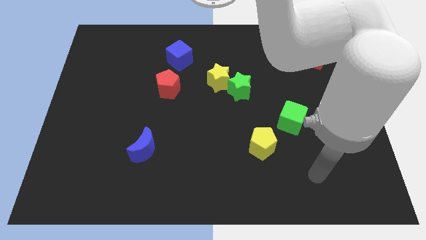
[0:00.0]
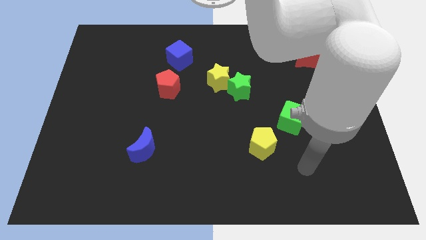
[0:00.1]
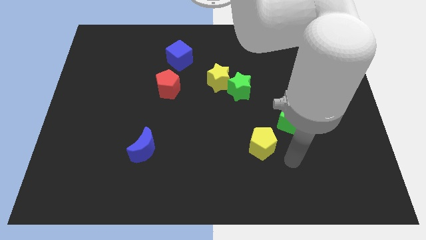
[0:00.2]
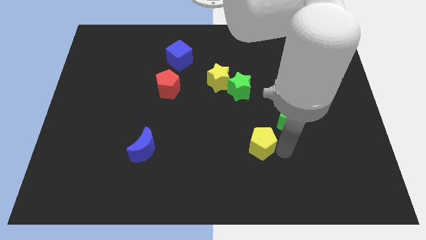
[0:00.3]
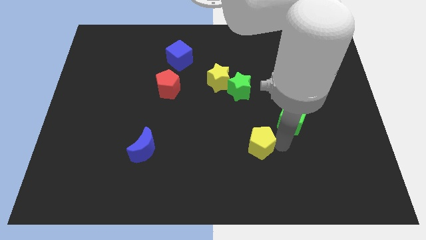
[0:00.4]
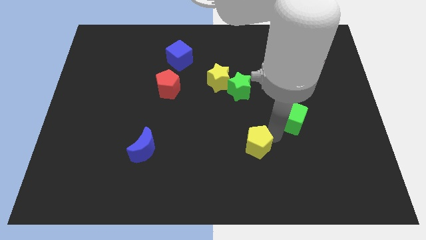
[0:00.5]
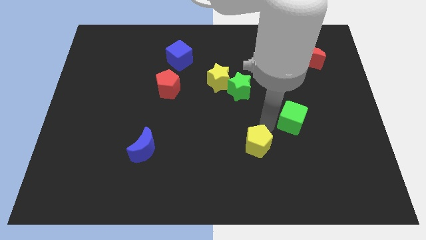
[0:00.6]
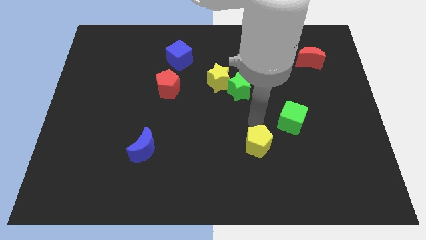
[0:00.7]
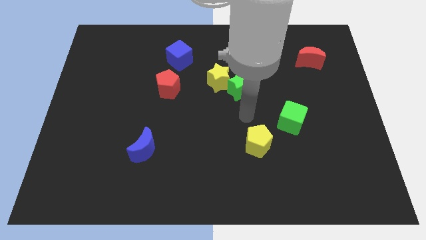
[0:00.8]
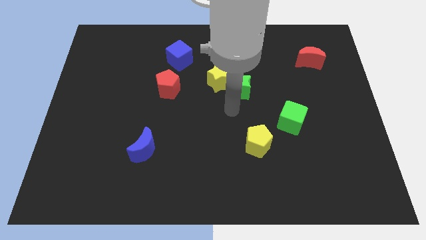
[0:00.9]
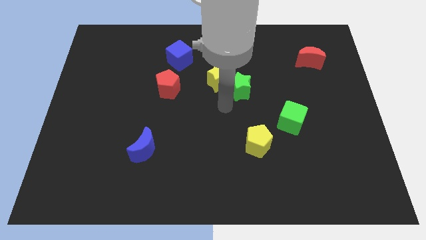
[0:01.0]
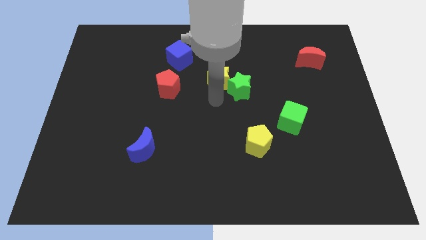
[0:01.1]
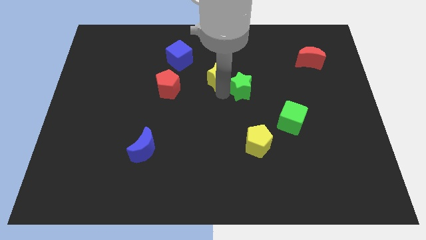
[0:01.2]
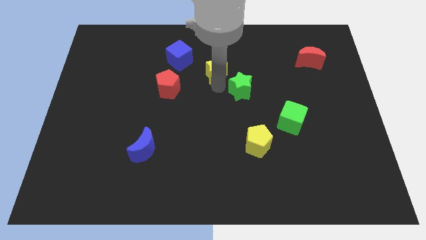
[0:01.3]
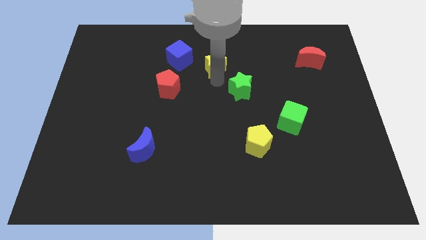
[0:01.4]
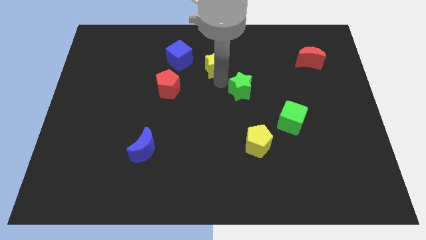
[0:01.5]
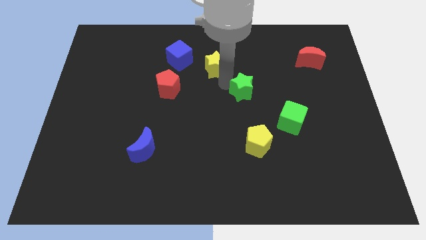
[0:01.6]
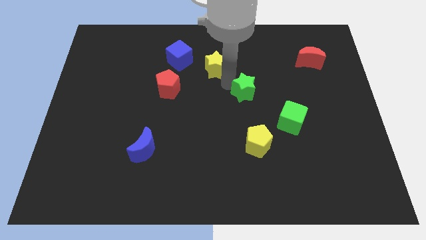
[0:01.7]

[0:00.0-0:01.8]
move the green star away from the yellow star

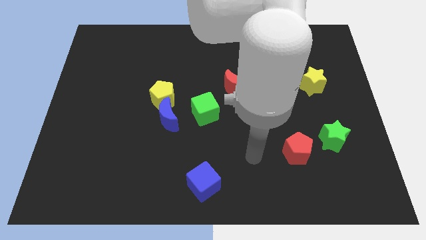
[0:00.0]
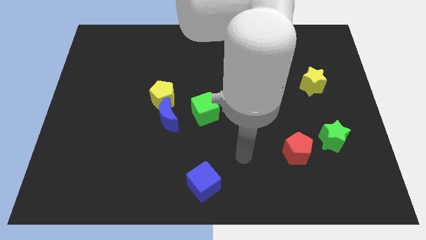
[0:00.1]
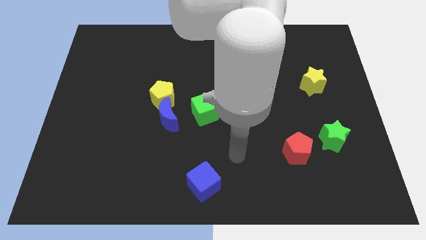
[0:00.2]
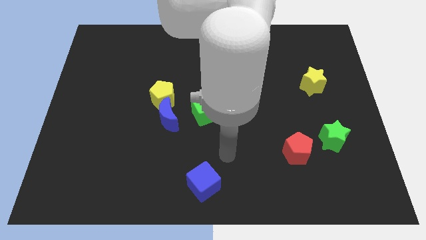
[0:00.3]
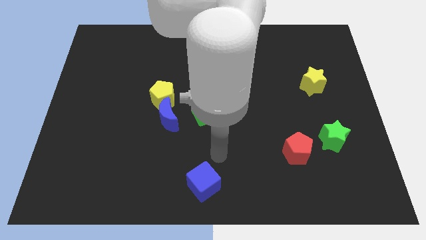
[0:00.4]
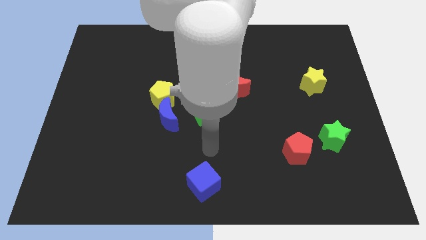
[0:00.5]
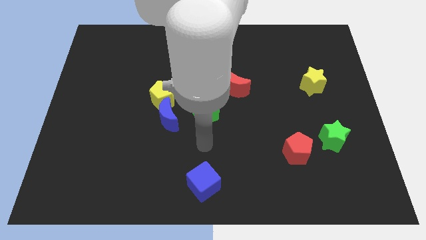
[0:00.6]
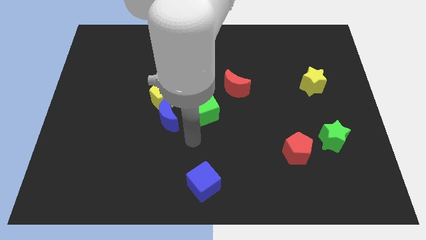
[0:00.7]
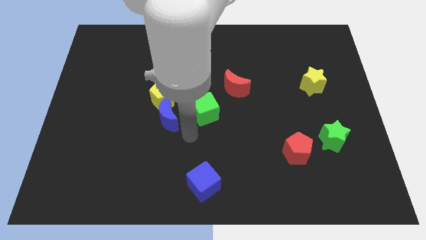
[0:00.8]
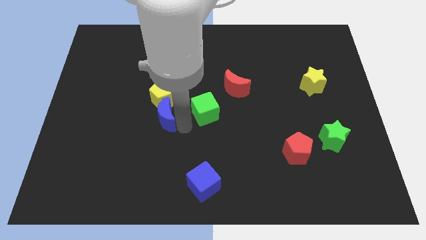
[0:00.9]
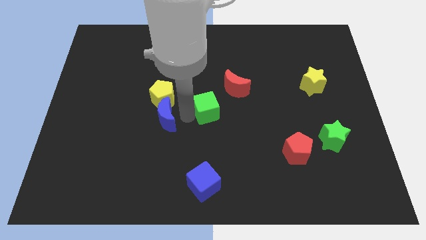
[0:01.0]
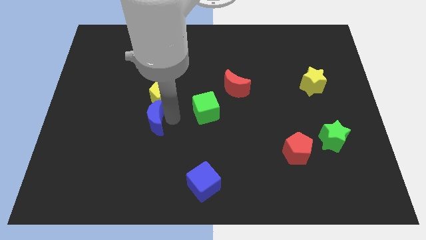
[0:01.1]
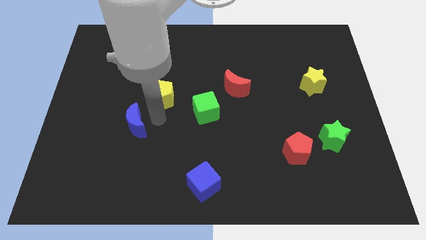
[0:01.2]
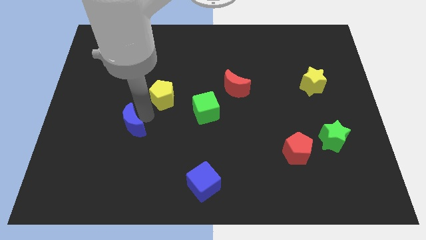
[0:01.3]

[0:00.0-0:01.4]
move the yellow pentagon away from the blue moon

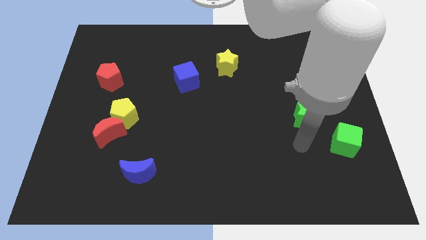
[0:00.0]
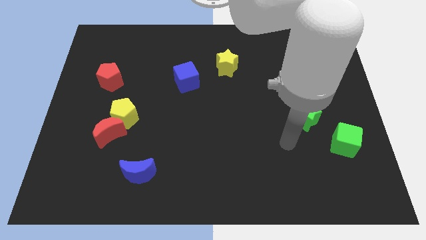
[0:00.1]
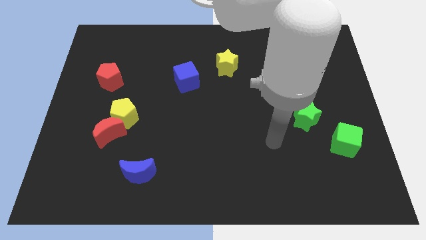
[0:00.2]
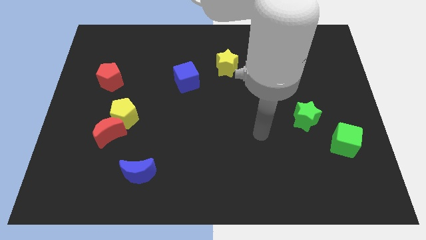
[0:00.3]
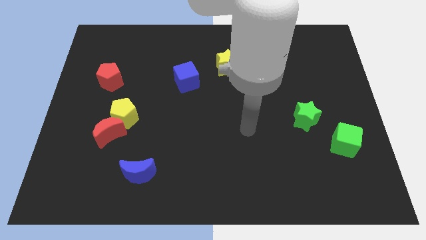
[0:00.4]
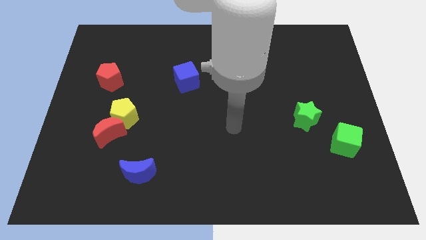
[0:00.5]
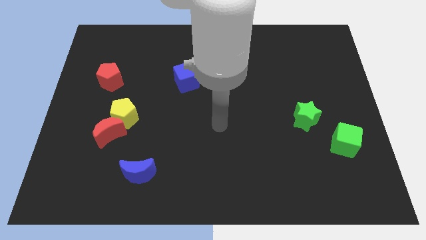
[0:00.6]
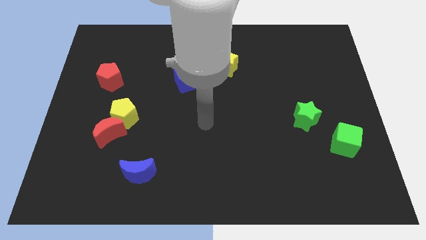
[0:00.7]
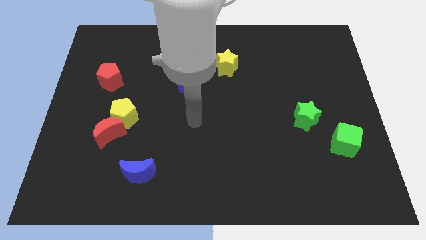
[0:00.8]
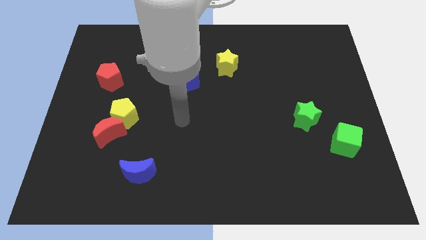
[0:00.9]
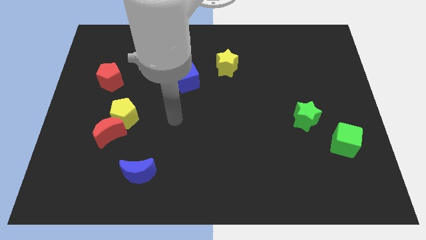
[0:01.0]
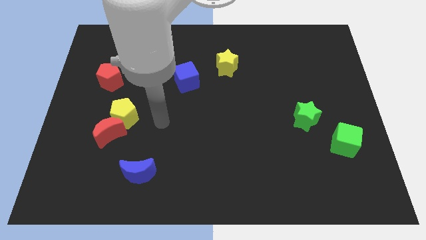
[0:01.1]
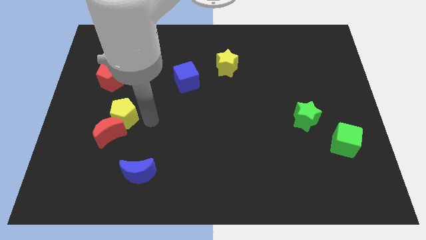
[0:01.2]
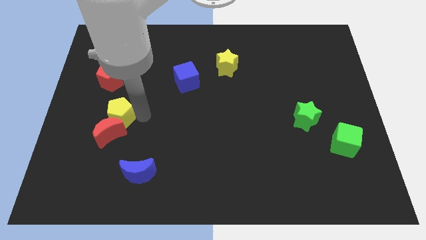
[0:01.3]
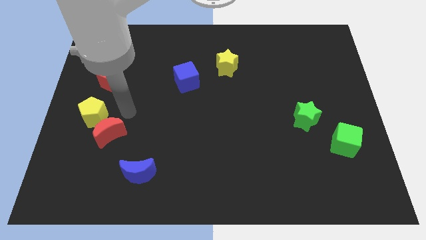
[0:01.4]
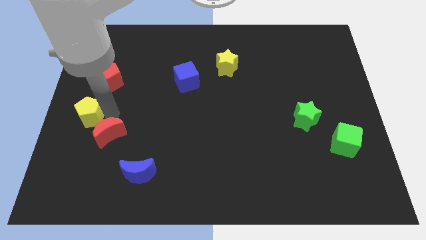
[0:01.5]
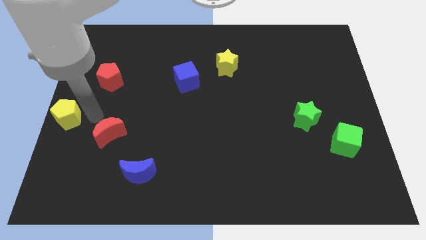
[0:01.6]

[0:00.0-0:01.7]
separate the red moon from the yellow pentagon

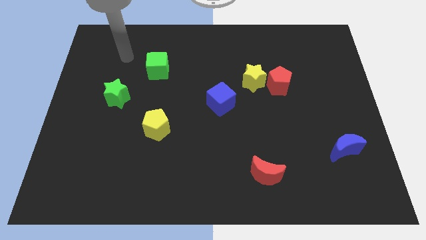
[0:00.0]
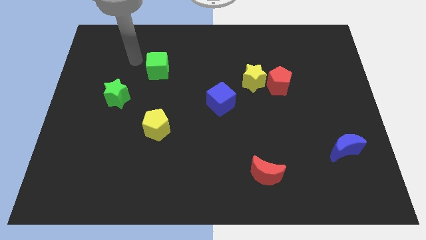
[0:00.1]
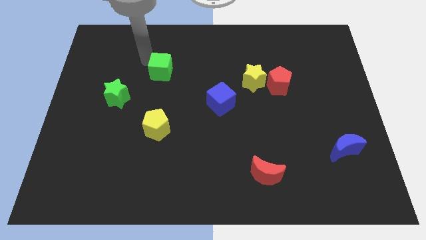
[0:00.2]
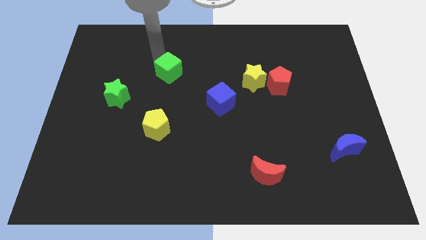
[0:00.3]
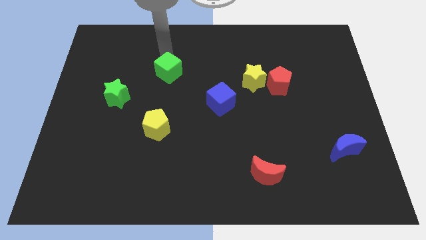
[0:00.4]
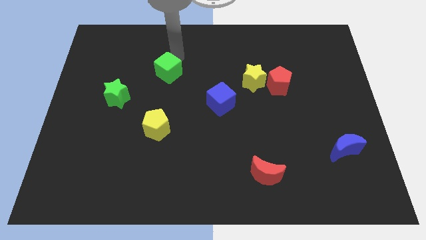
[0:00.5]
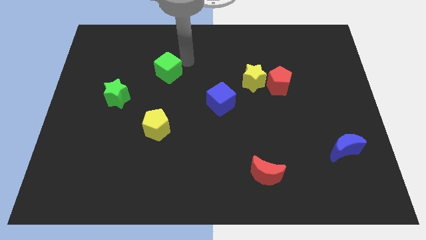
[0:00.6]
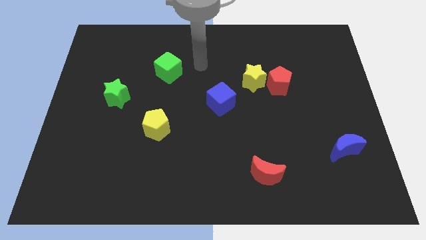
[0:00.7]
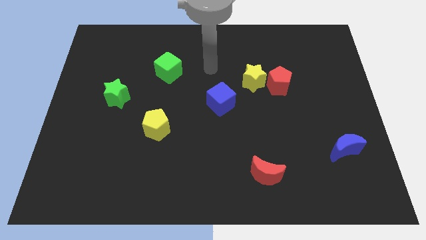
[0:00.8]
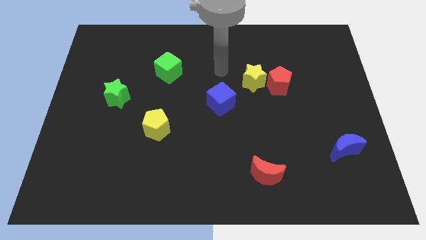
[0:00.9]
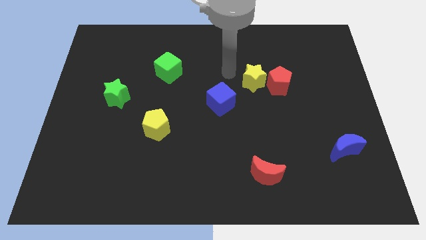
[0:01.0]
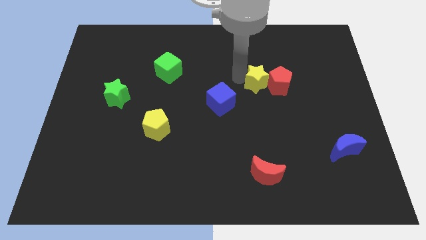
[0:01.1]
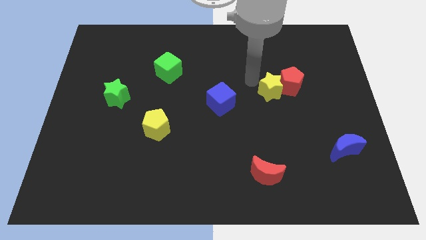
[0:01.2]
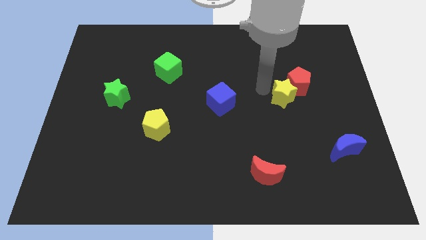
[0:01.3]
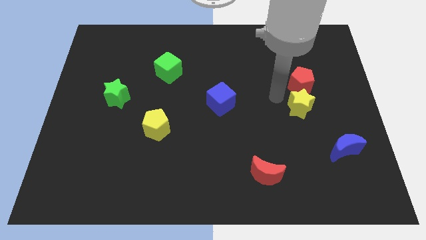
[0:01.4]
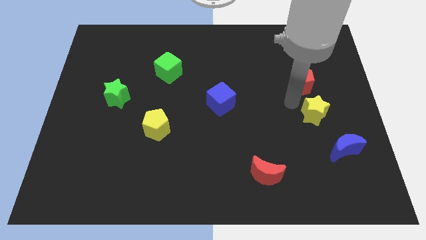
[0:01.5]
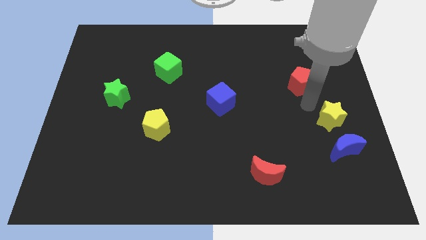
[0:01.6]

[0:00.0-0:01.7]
move the red pentagon away from the yellow star

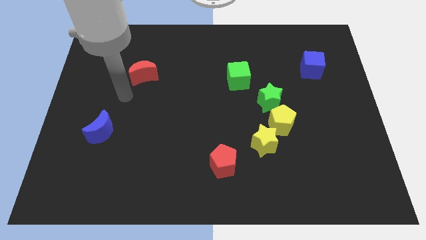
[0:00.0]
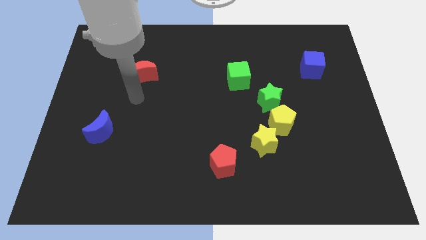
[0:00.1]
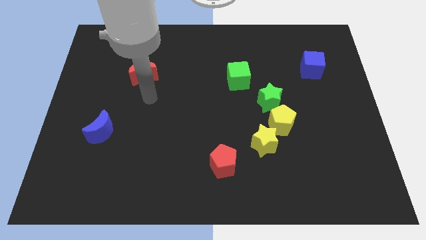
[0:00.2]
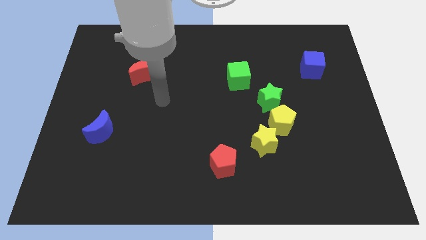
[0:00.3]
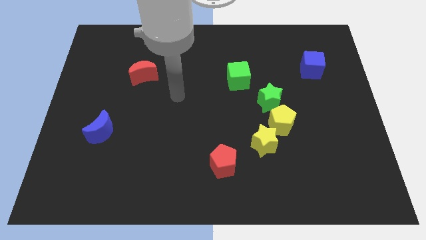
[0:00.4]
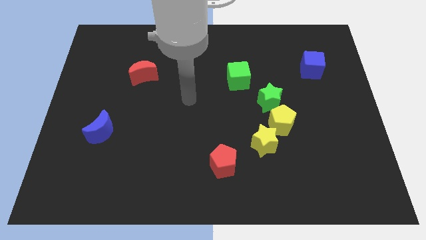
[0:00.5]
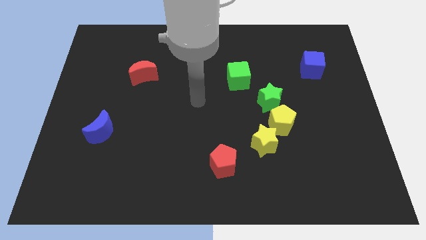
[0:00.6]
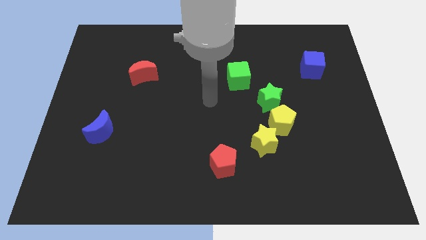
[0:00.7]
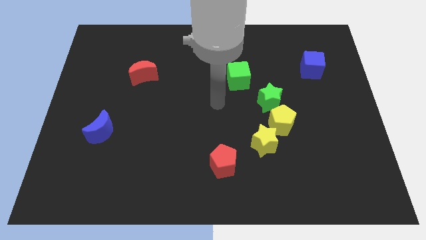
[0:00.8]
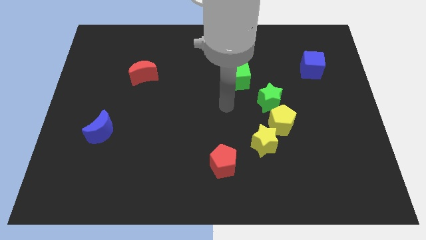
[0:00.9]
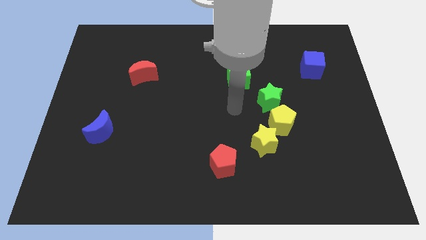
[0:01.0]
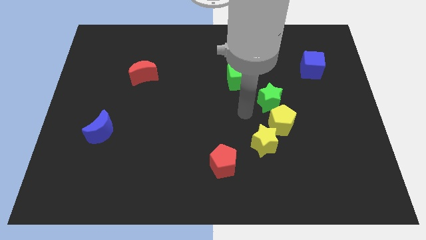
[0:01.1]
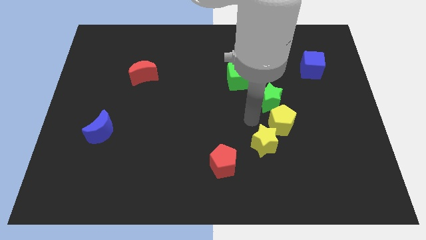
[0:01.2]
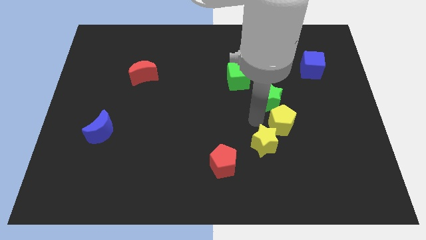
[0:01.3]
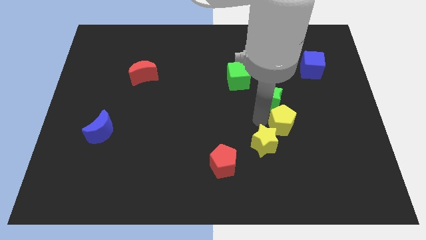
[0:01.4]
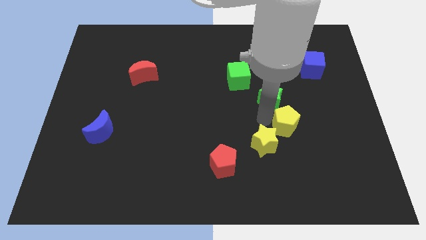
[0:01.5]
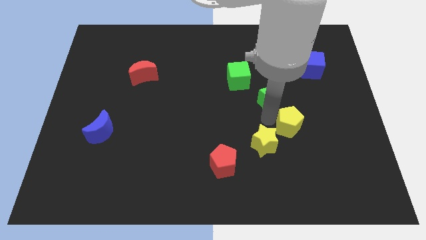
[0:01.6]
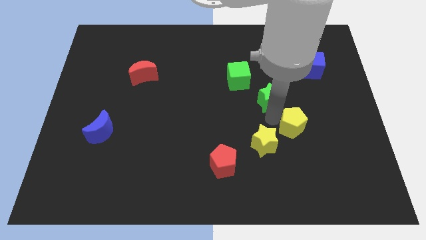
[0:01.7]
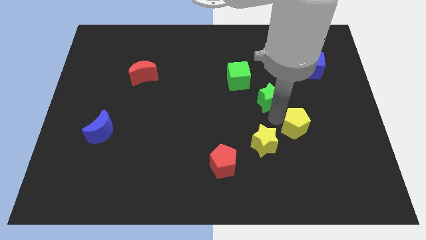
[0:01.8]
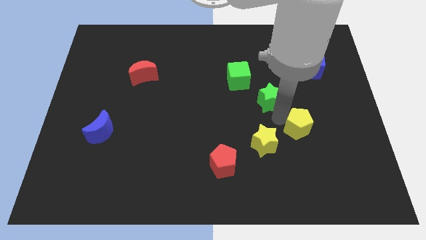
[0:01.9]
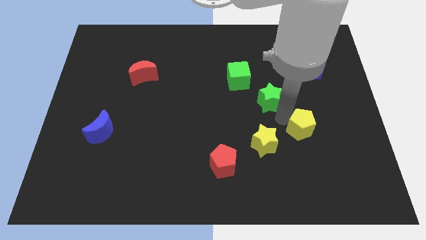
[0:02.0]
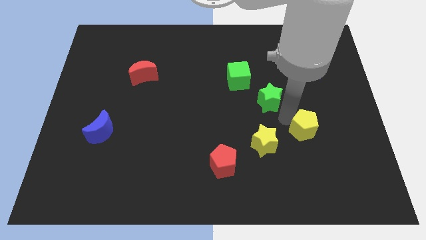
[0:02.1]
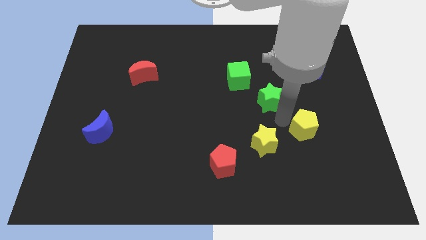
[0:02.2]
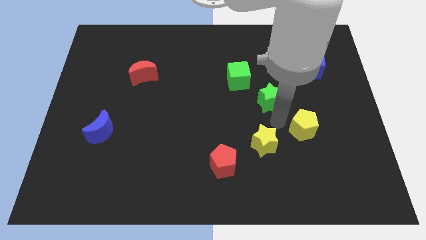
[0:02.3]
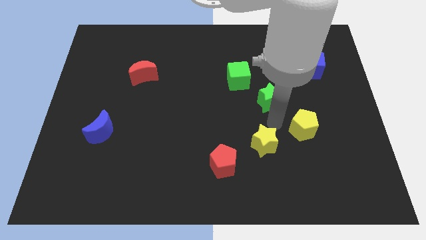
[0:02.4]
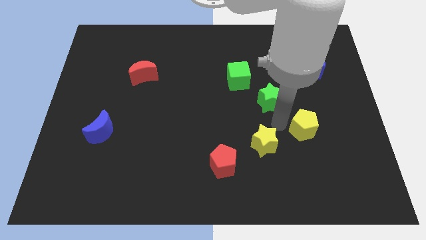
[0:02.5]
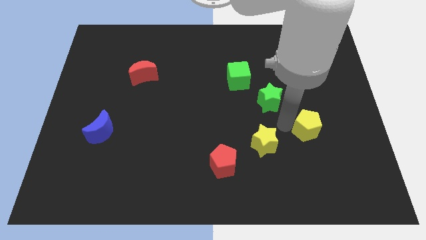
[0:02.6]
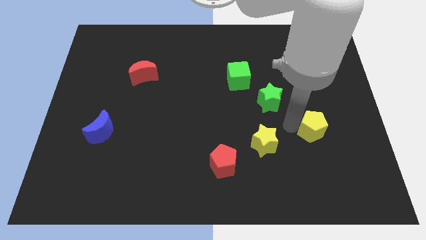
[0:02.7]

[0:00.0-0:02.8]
move the yellow pentagon away from the green star and yellow star
